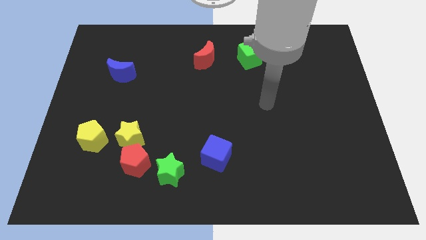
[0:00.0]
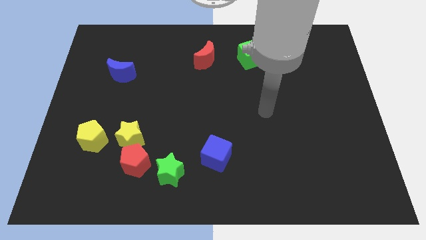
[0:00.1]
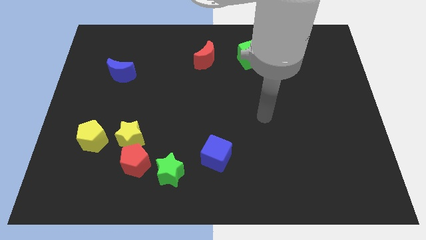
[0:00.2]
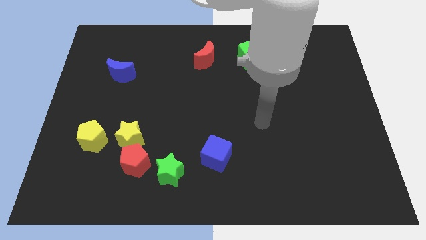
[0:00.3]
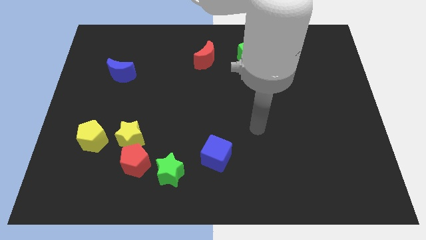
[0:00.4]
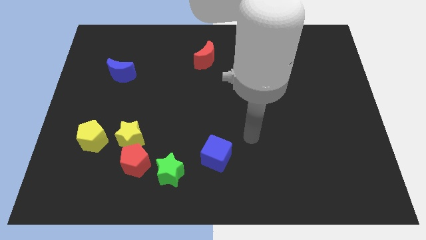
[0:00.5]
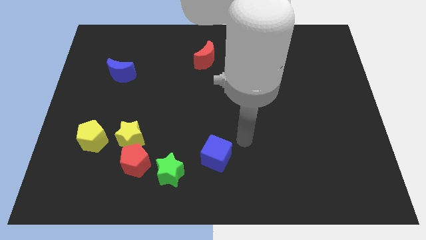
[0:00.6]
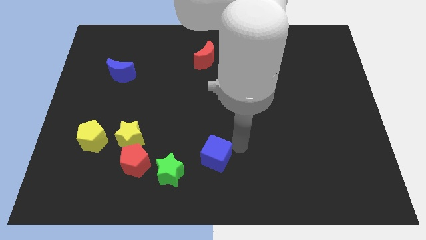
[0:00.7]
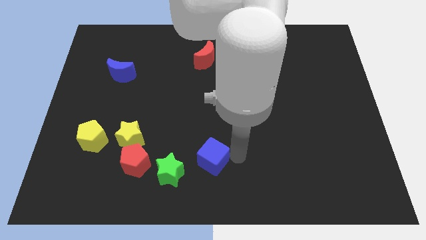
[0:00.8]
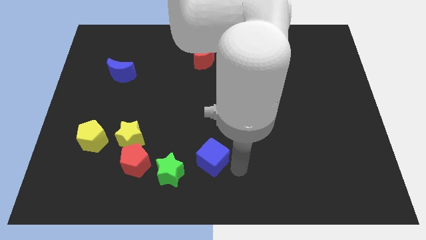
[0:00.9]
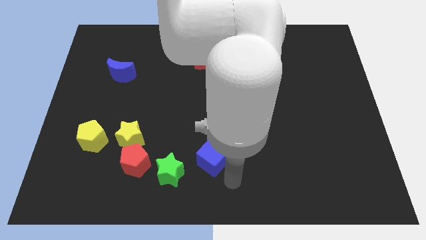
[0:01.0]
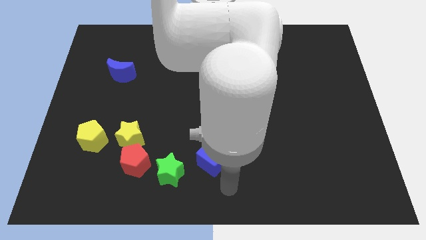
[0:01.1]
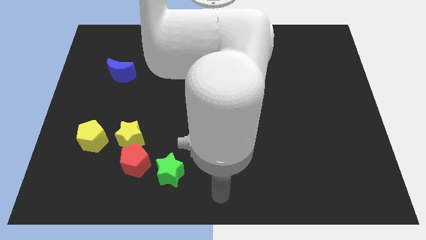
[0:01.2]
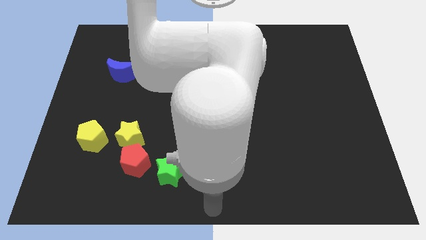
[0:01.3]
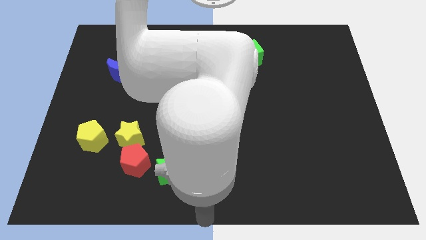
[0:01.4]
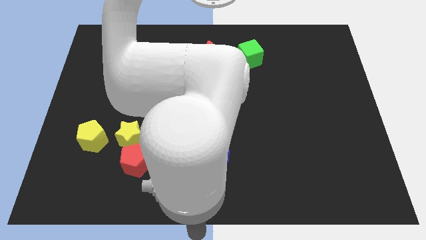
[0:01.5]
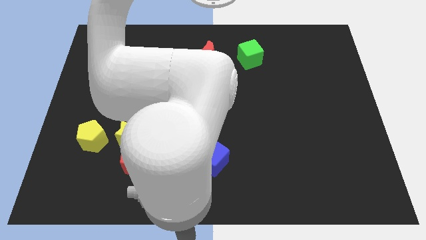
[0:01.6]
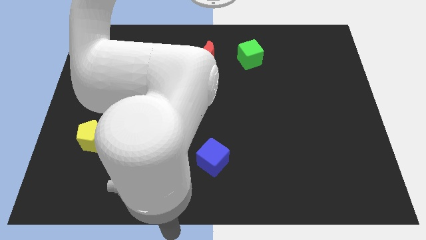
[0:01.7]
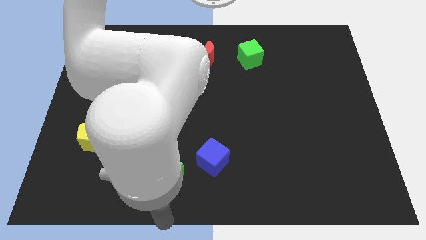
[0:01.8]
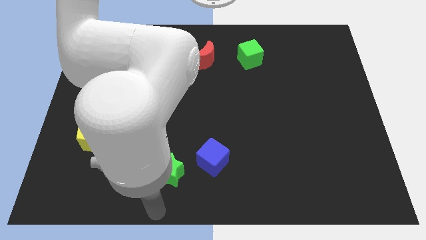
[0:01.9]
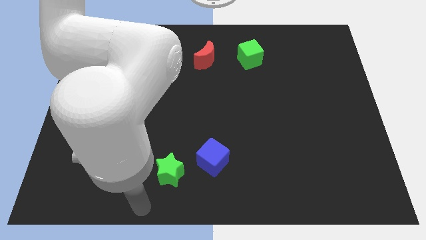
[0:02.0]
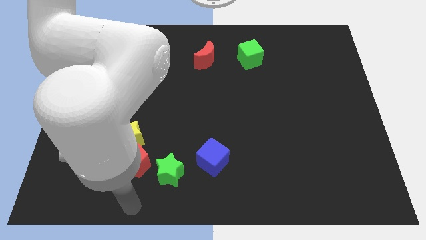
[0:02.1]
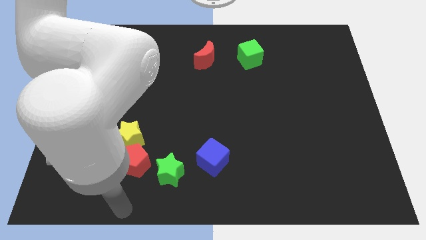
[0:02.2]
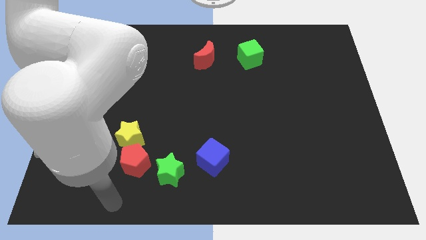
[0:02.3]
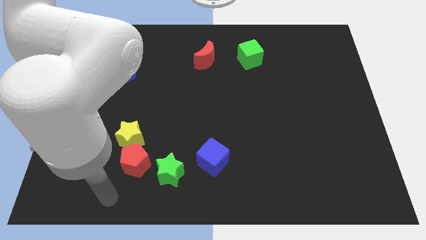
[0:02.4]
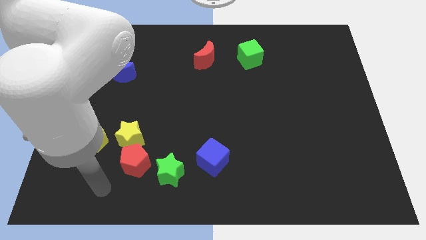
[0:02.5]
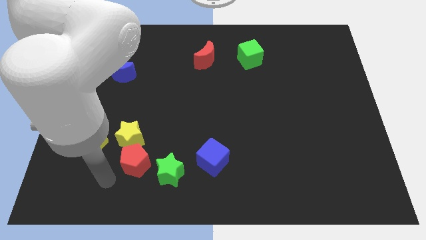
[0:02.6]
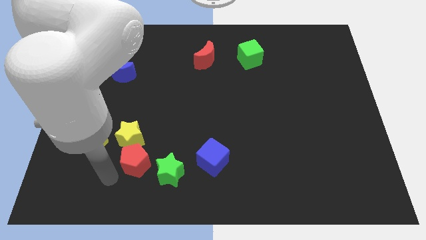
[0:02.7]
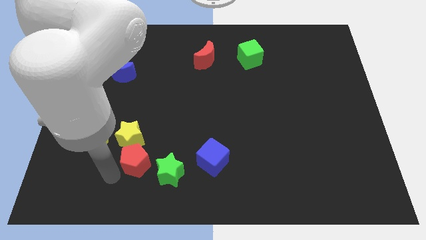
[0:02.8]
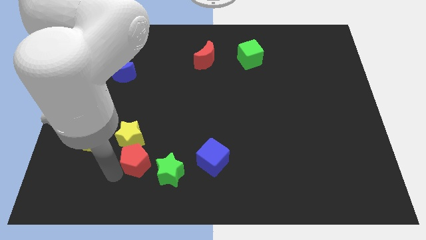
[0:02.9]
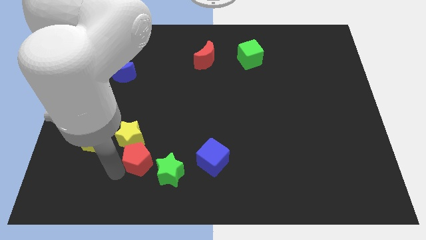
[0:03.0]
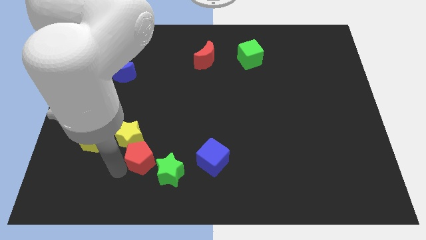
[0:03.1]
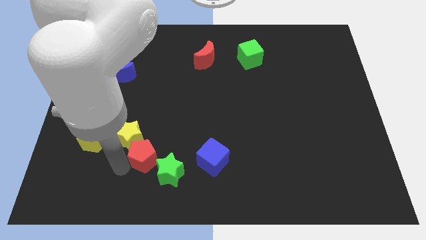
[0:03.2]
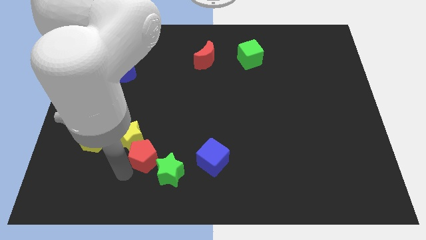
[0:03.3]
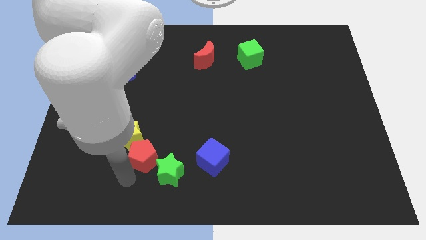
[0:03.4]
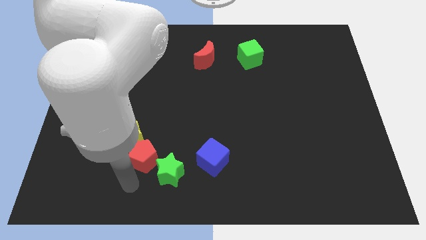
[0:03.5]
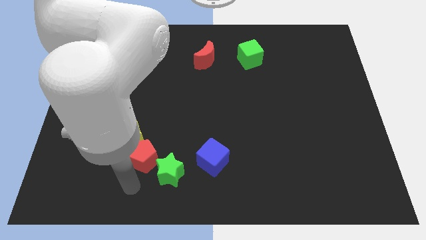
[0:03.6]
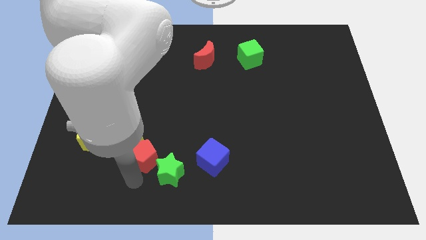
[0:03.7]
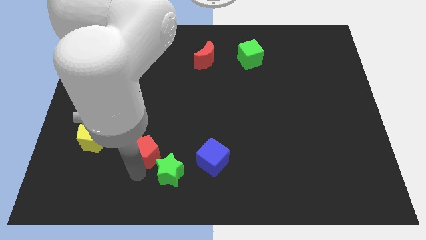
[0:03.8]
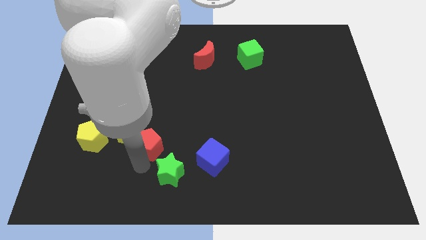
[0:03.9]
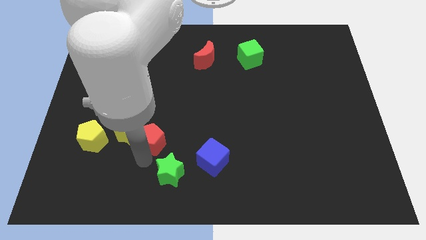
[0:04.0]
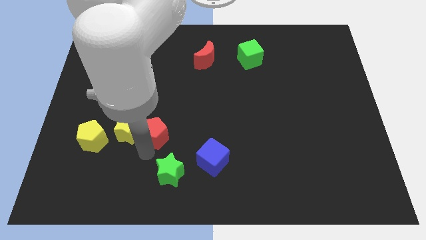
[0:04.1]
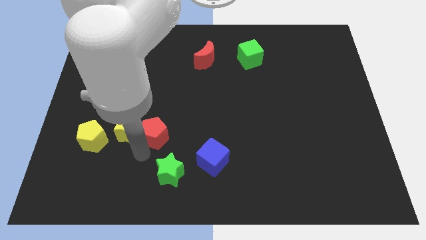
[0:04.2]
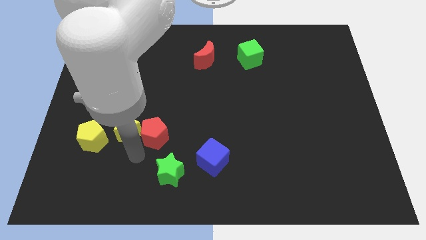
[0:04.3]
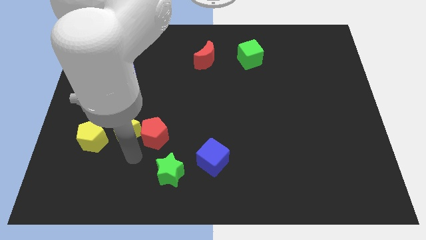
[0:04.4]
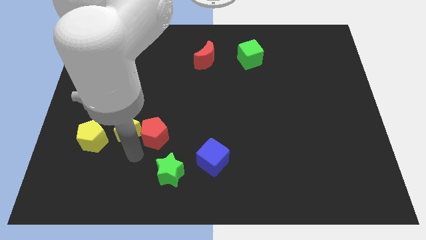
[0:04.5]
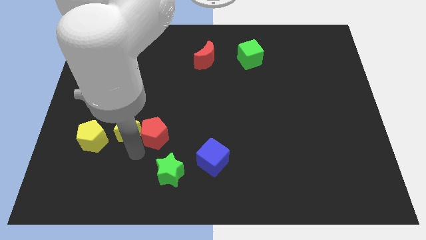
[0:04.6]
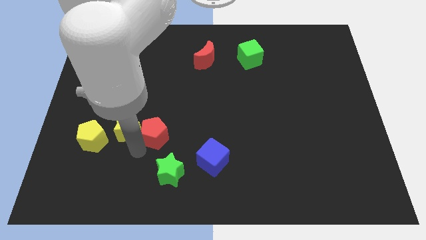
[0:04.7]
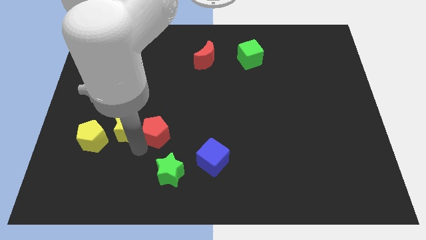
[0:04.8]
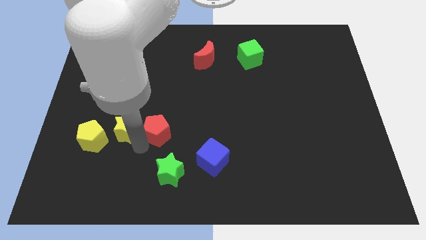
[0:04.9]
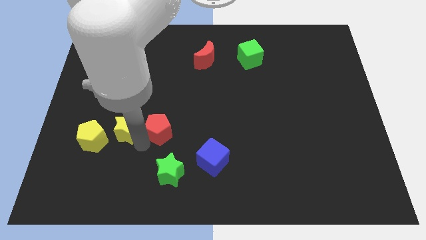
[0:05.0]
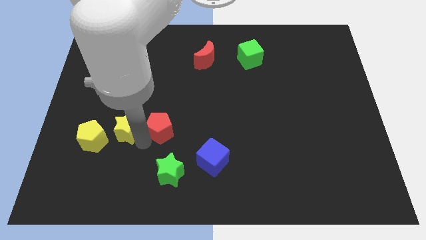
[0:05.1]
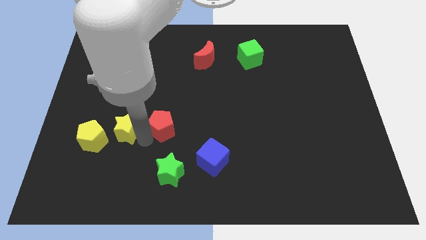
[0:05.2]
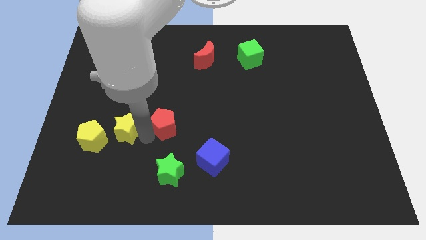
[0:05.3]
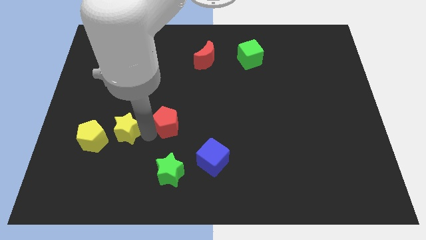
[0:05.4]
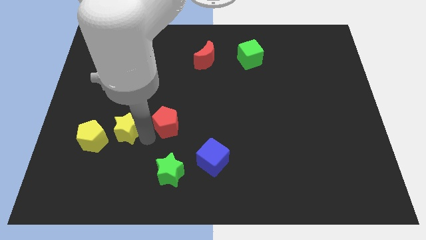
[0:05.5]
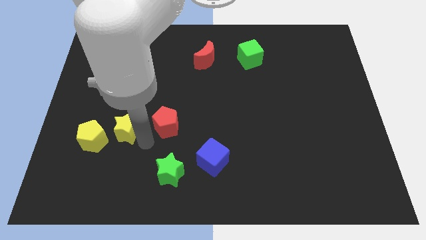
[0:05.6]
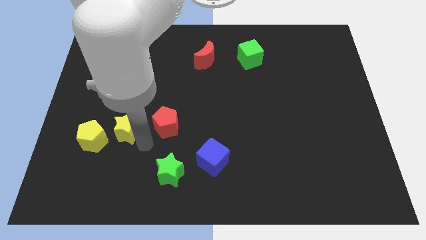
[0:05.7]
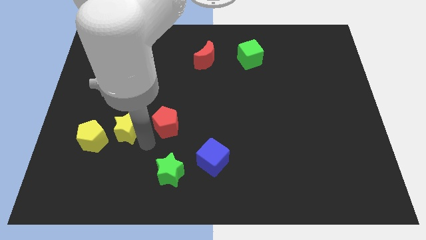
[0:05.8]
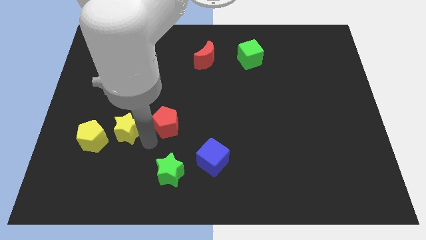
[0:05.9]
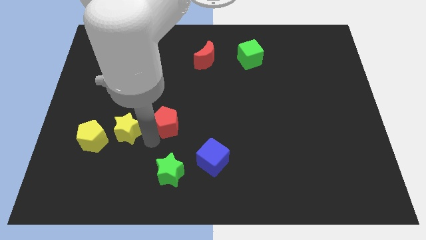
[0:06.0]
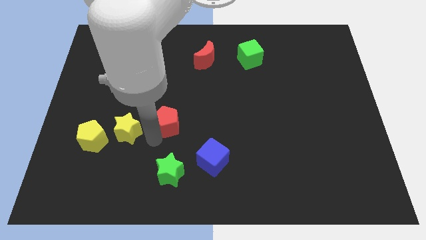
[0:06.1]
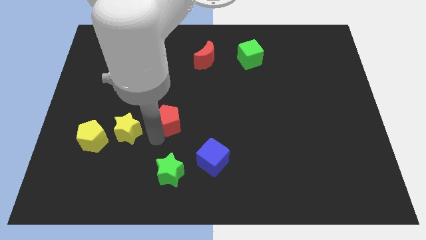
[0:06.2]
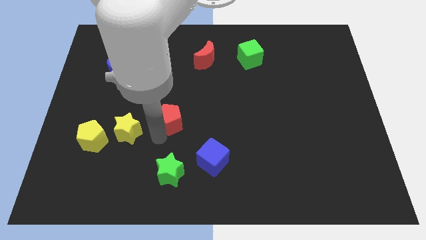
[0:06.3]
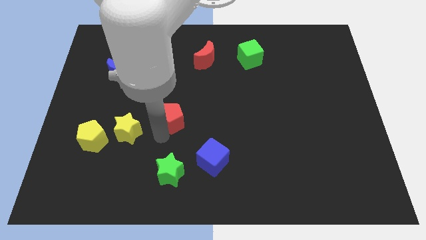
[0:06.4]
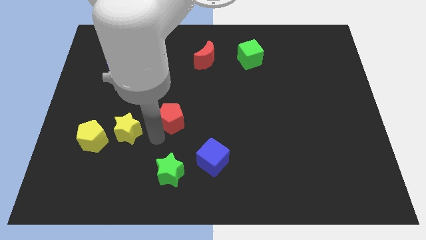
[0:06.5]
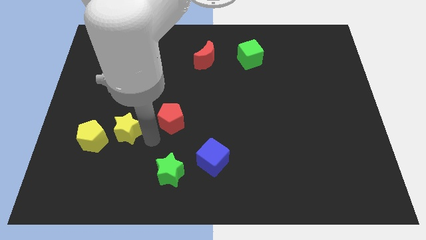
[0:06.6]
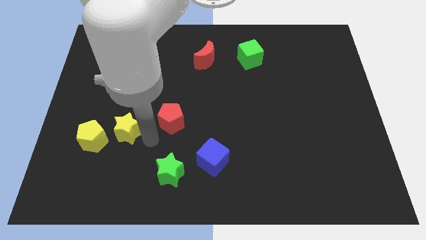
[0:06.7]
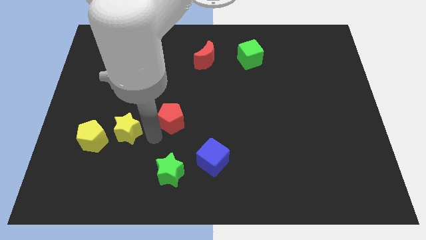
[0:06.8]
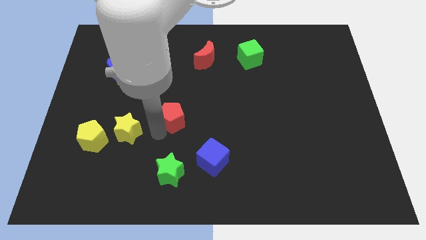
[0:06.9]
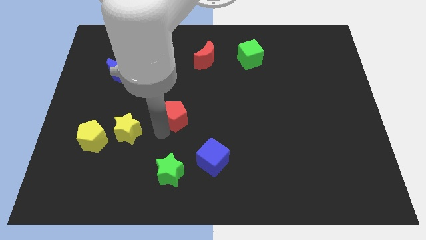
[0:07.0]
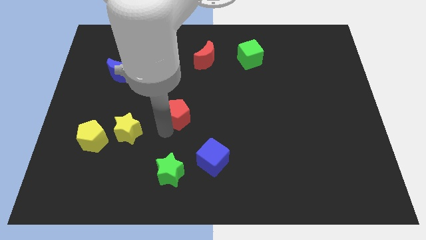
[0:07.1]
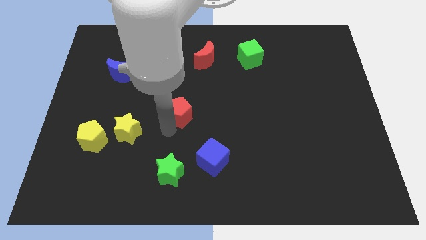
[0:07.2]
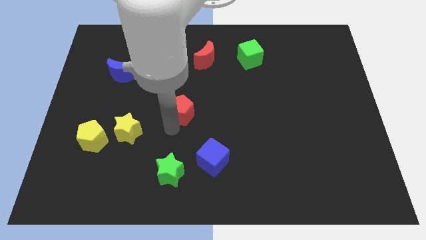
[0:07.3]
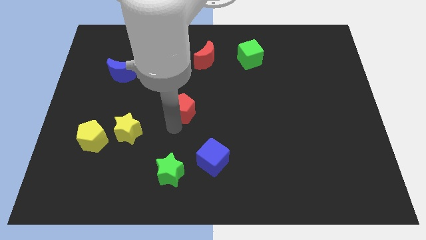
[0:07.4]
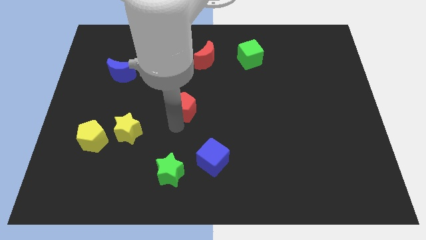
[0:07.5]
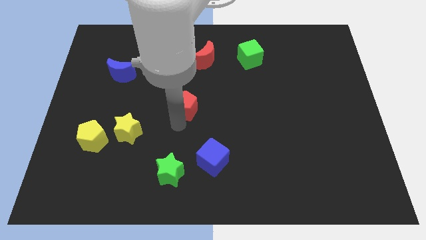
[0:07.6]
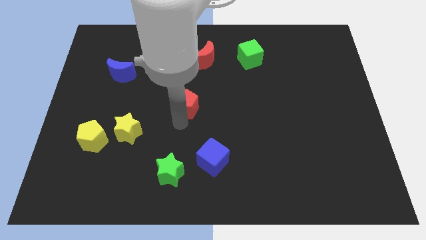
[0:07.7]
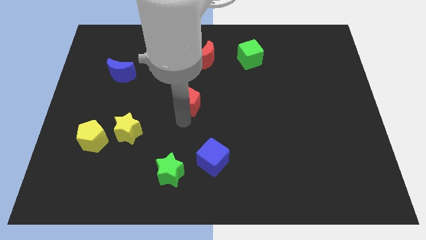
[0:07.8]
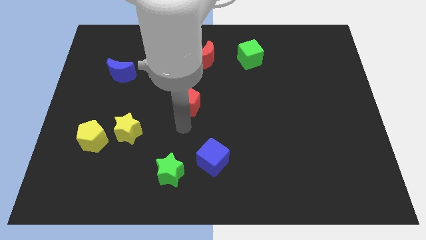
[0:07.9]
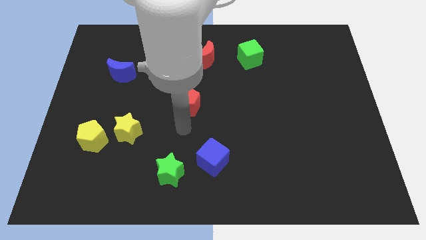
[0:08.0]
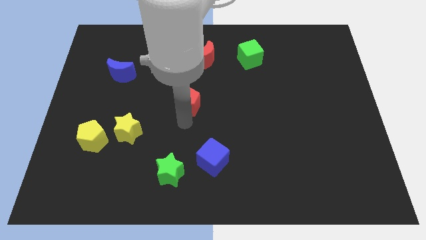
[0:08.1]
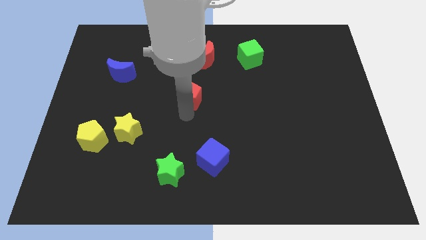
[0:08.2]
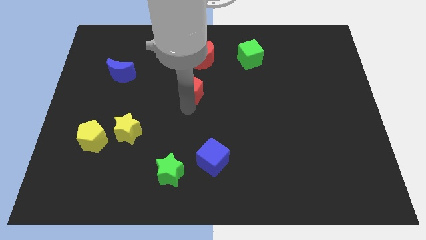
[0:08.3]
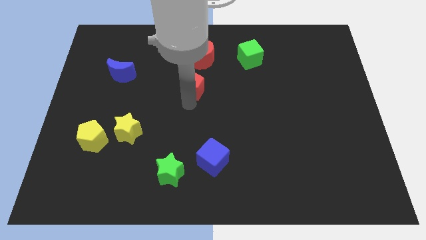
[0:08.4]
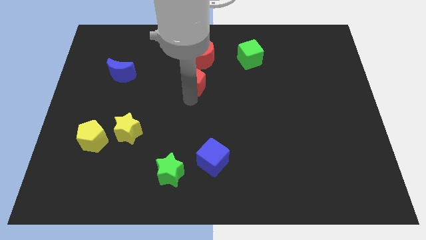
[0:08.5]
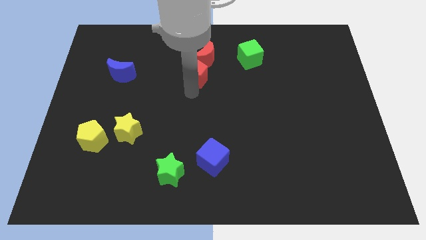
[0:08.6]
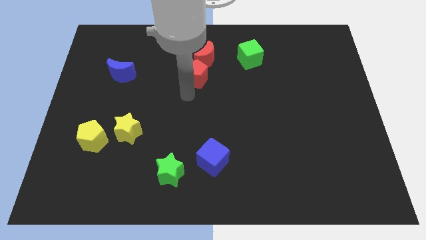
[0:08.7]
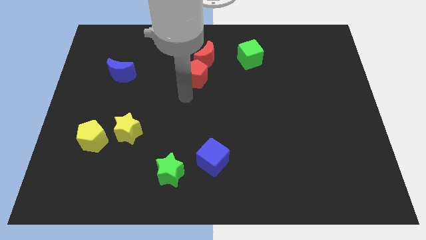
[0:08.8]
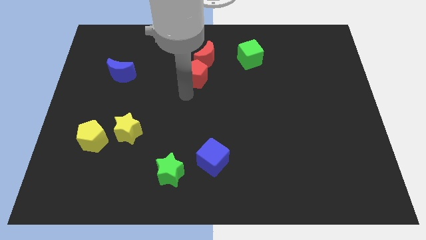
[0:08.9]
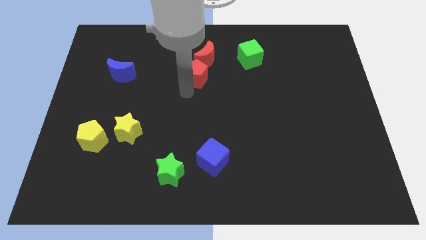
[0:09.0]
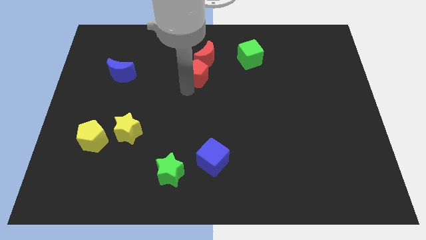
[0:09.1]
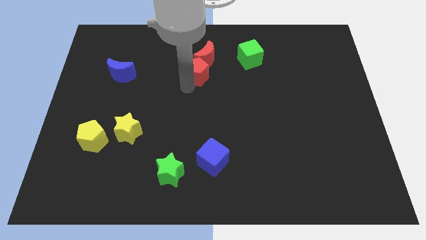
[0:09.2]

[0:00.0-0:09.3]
put the red pentagon to the red moon
